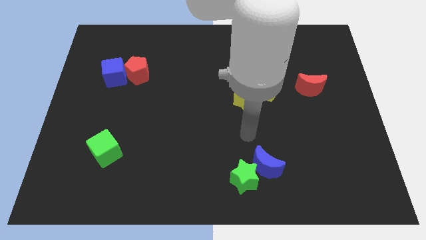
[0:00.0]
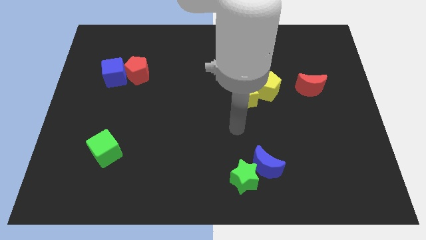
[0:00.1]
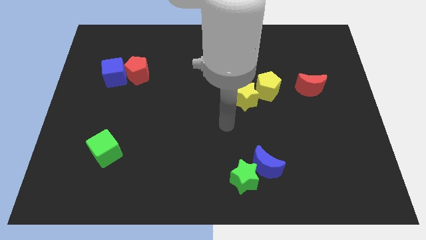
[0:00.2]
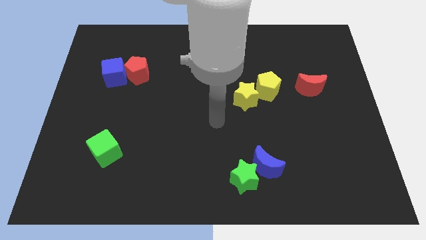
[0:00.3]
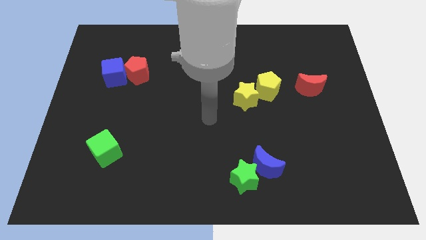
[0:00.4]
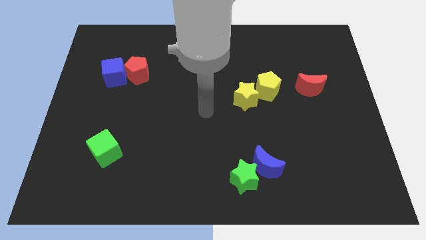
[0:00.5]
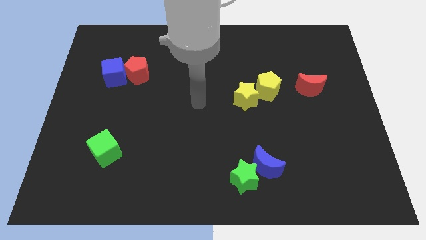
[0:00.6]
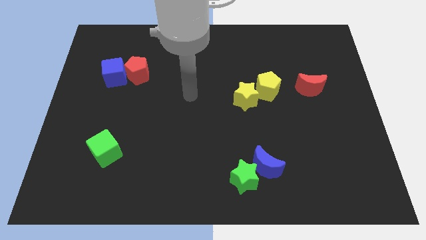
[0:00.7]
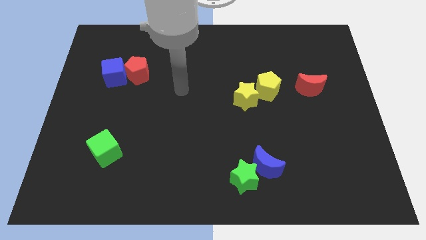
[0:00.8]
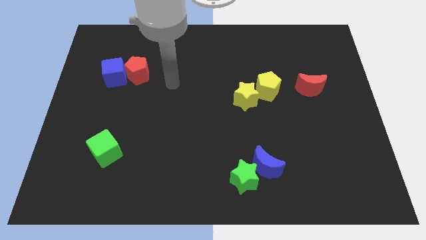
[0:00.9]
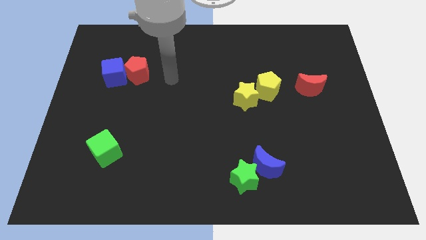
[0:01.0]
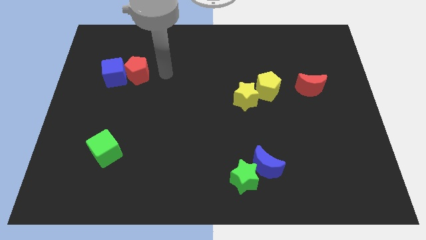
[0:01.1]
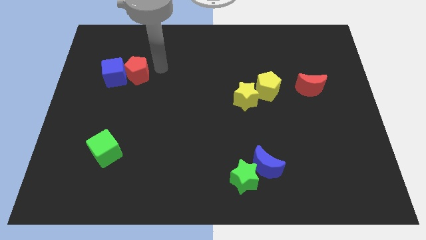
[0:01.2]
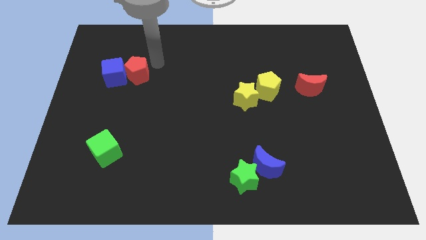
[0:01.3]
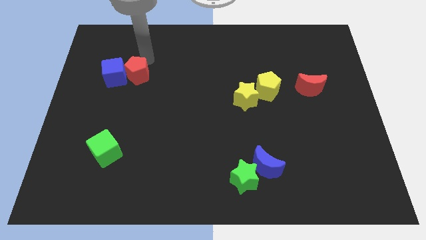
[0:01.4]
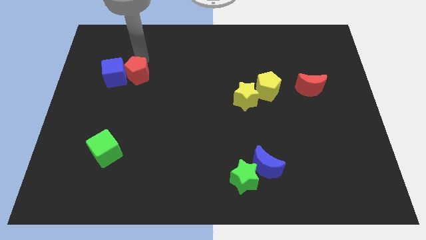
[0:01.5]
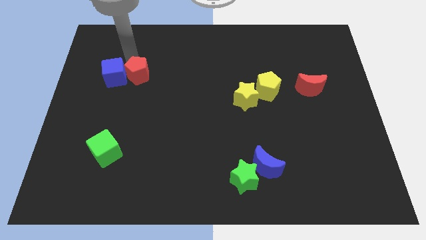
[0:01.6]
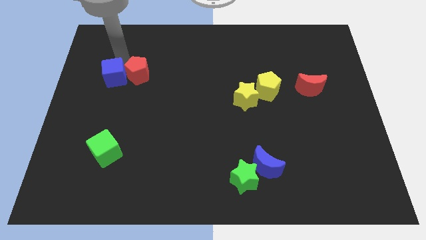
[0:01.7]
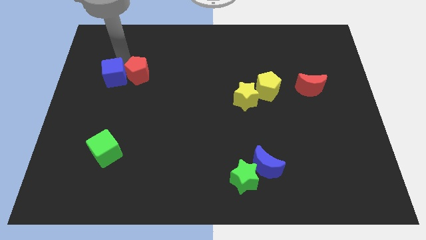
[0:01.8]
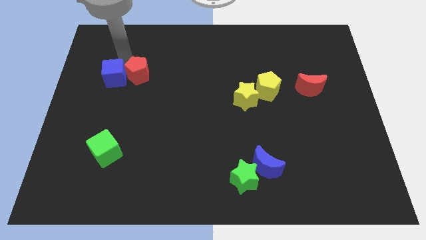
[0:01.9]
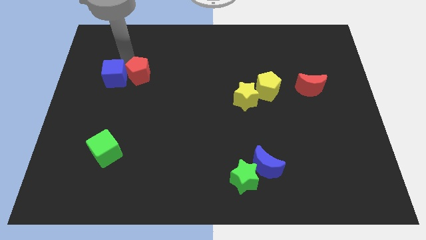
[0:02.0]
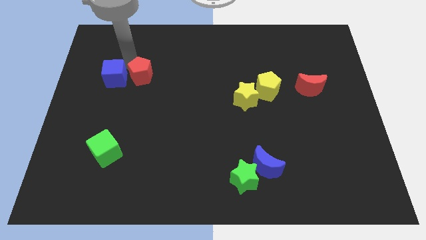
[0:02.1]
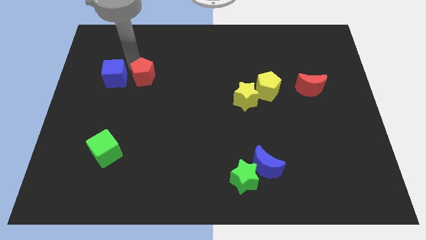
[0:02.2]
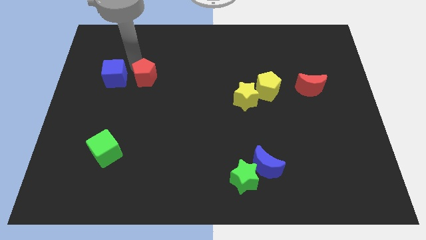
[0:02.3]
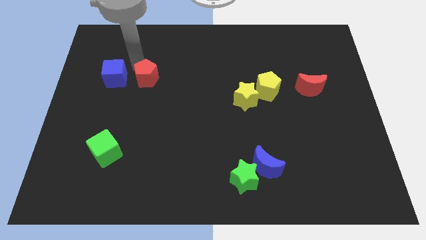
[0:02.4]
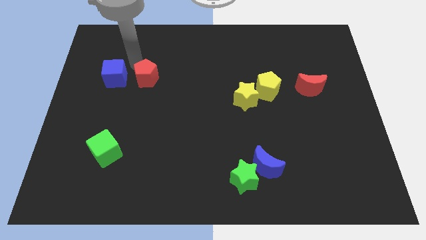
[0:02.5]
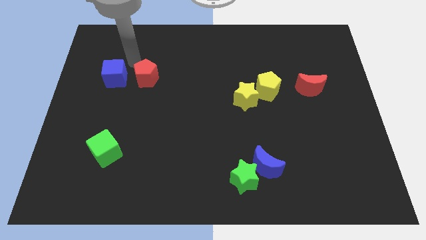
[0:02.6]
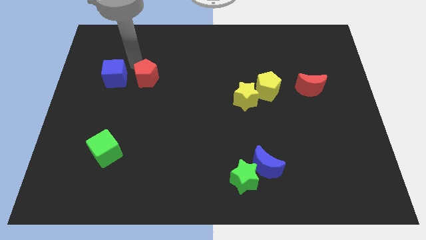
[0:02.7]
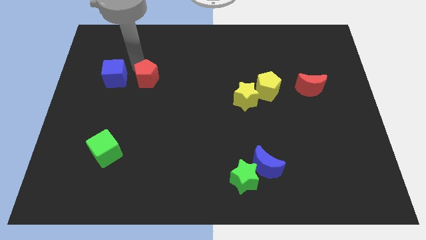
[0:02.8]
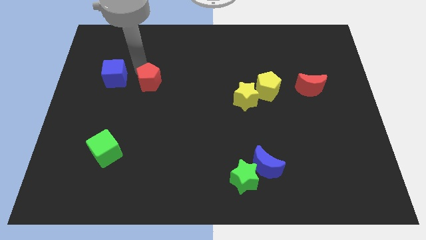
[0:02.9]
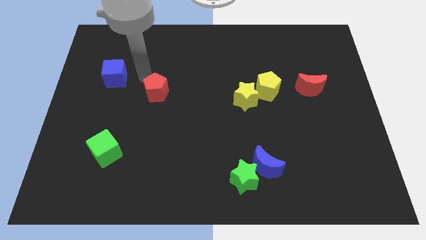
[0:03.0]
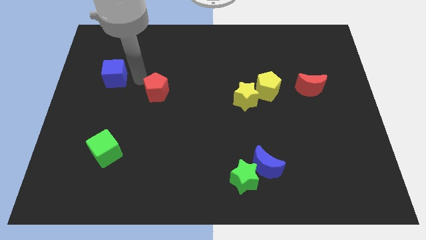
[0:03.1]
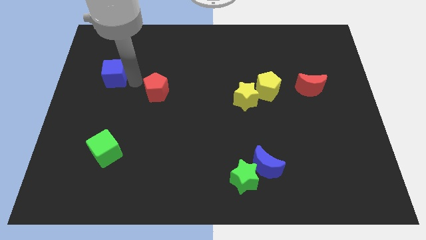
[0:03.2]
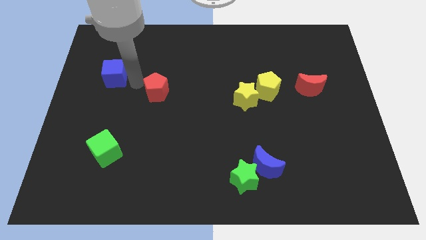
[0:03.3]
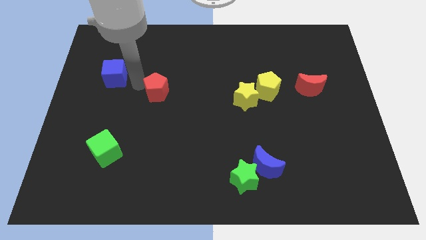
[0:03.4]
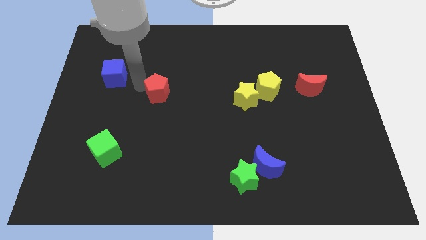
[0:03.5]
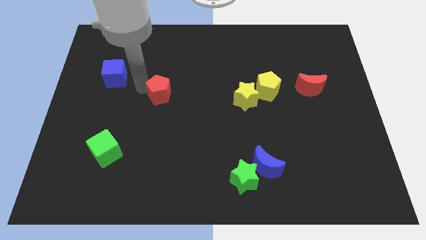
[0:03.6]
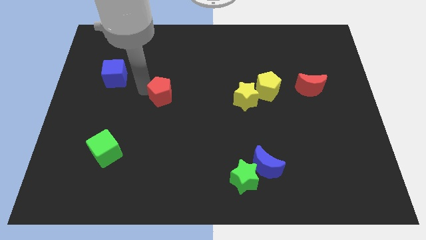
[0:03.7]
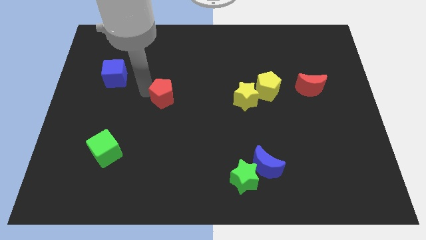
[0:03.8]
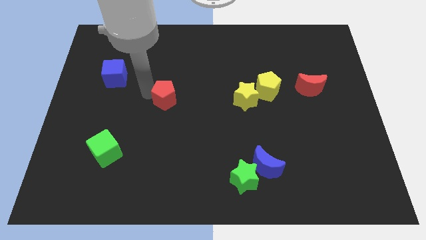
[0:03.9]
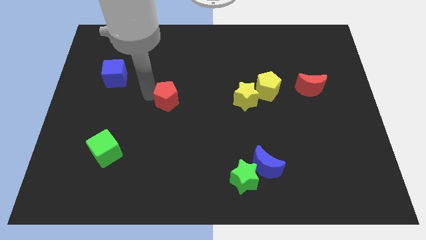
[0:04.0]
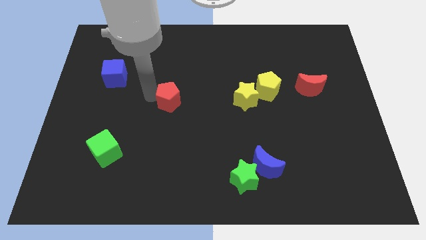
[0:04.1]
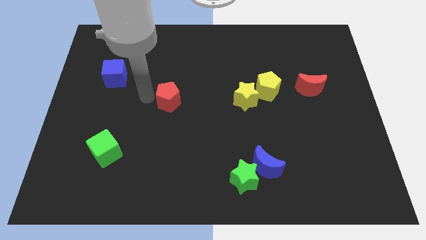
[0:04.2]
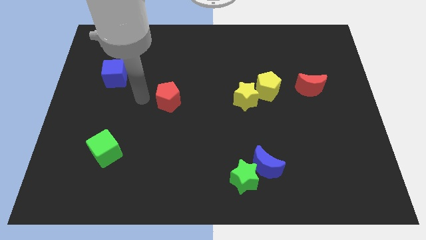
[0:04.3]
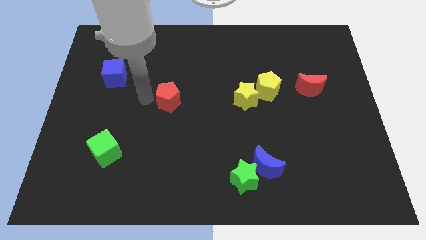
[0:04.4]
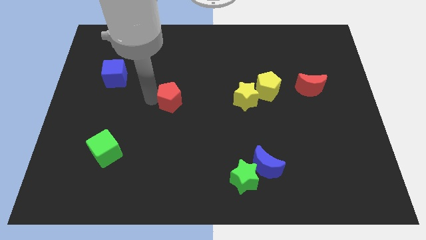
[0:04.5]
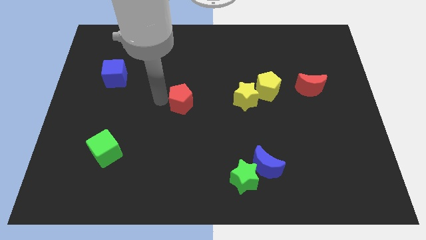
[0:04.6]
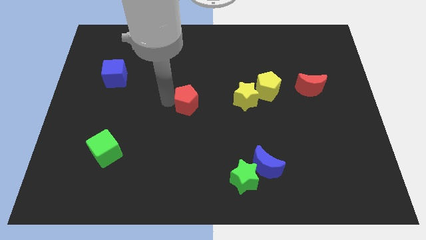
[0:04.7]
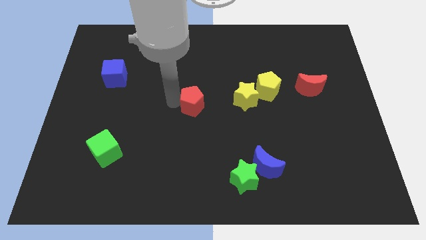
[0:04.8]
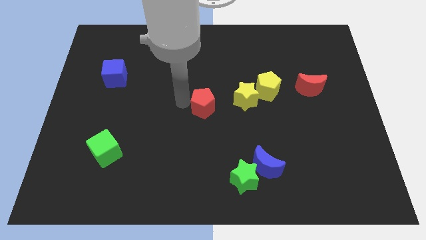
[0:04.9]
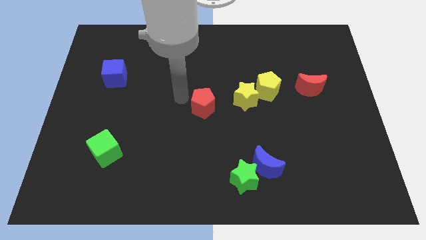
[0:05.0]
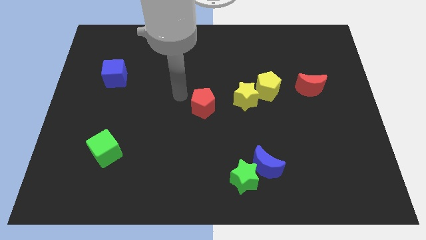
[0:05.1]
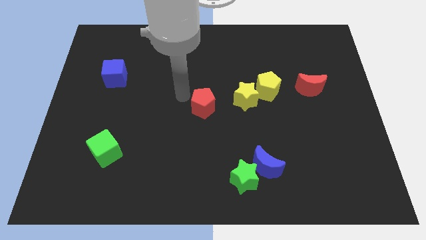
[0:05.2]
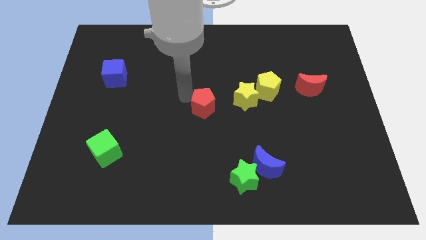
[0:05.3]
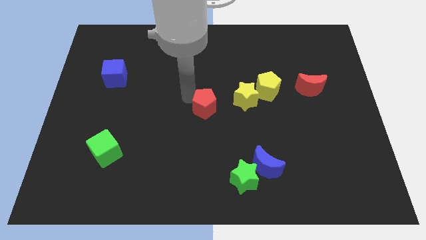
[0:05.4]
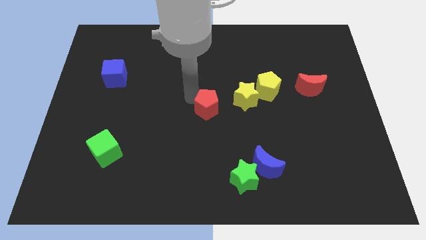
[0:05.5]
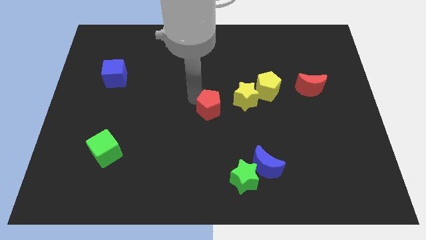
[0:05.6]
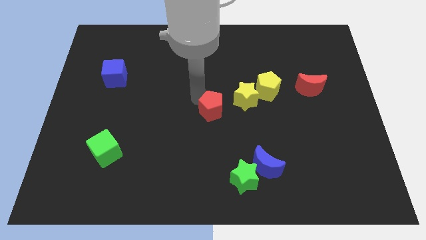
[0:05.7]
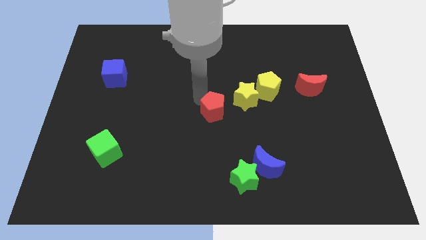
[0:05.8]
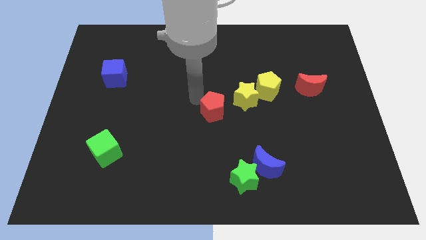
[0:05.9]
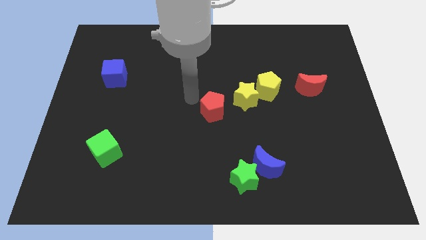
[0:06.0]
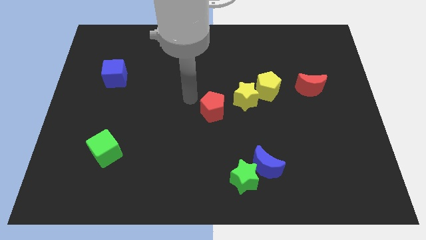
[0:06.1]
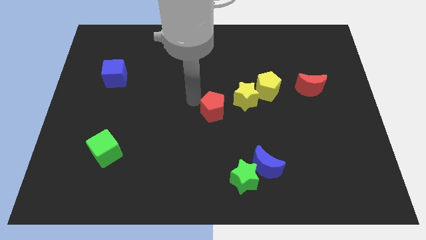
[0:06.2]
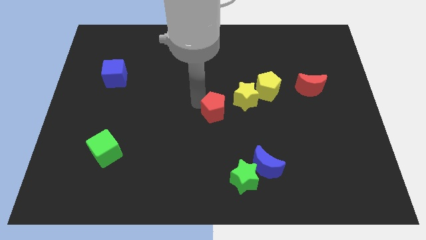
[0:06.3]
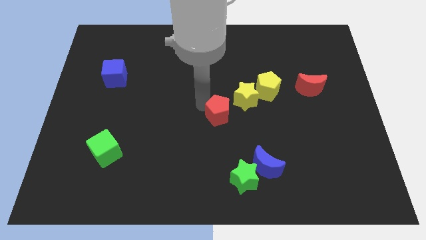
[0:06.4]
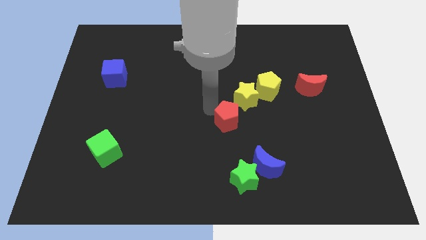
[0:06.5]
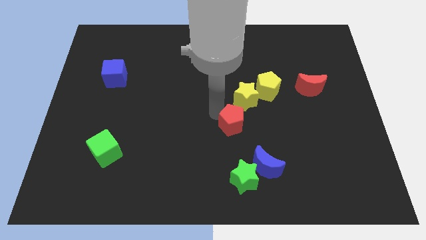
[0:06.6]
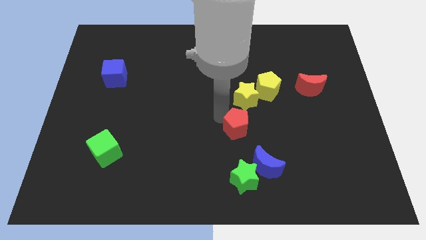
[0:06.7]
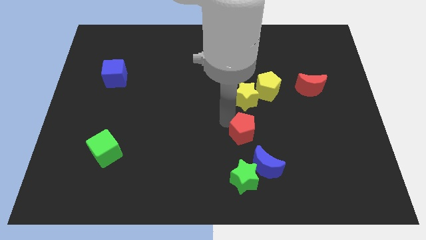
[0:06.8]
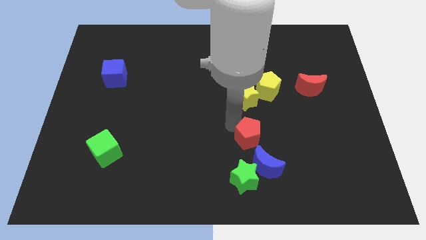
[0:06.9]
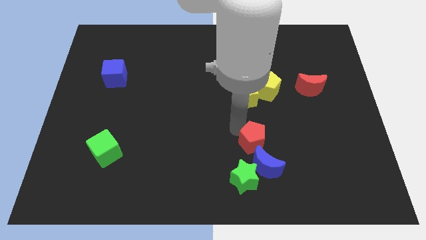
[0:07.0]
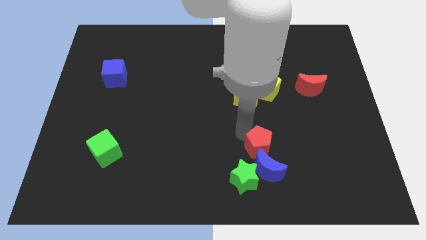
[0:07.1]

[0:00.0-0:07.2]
move the red pentagon to the top right side of the green star
